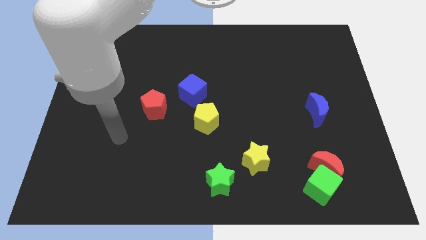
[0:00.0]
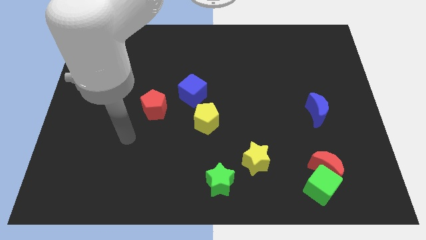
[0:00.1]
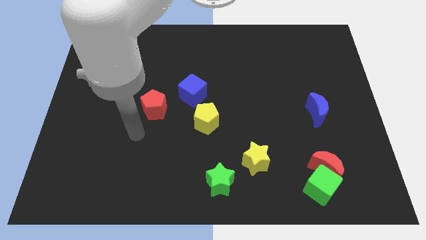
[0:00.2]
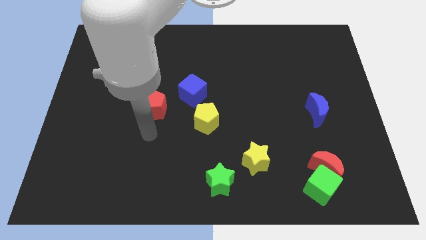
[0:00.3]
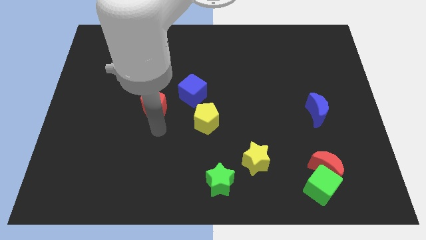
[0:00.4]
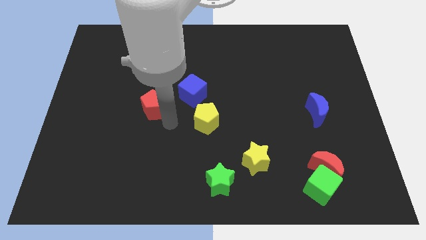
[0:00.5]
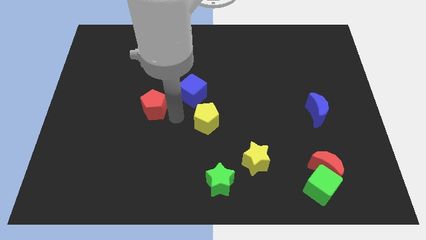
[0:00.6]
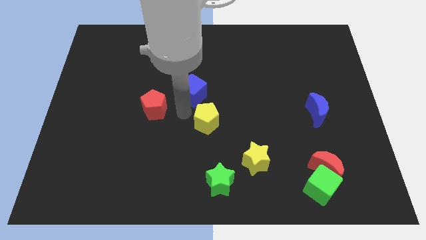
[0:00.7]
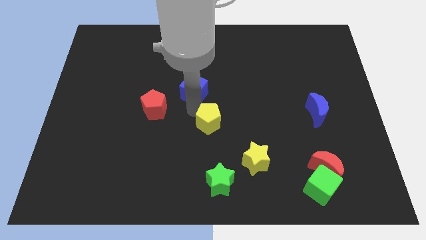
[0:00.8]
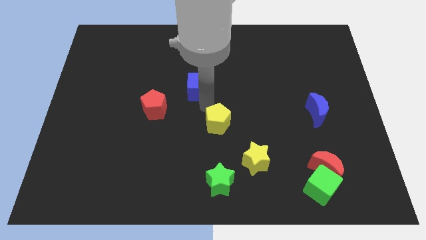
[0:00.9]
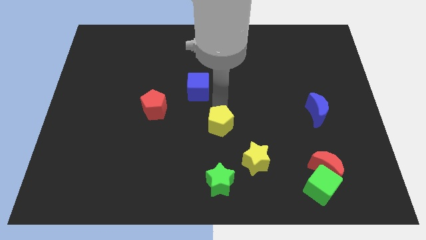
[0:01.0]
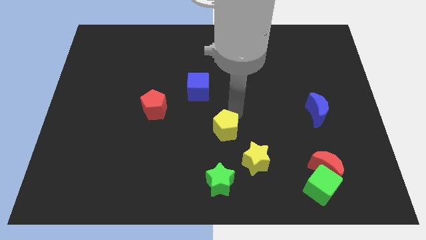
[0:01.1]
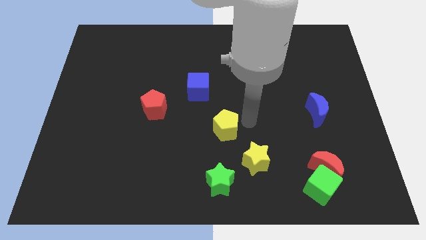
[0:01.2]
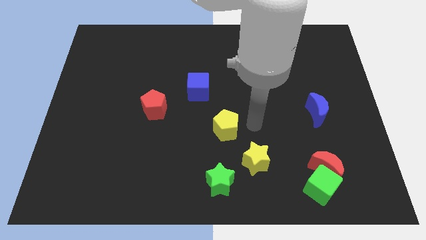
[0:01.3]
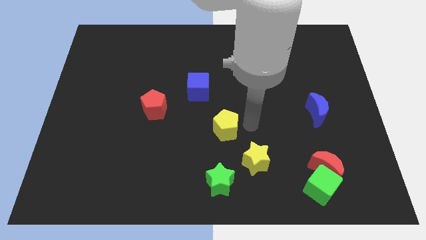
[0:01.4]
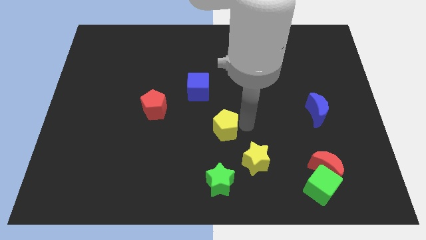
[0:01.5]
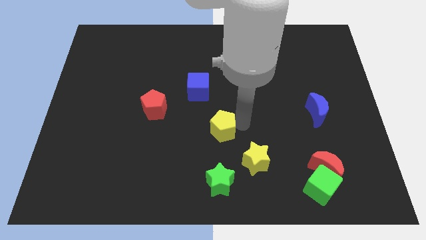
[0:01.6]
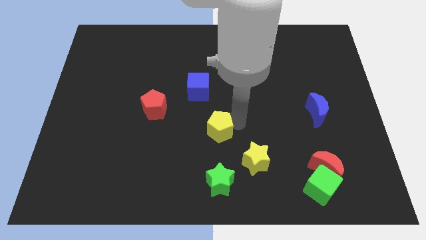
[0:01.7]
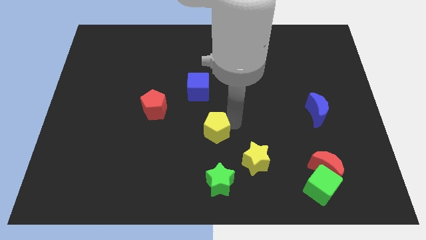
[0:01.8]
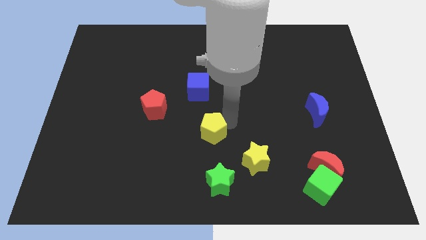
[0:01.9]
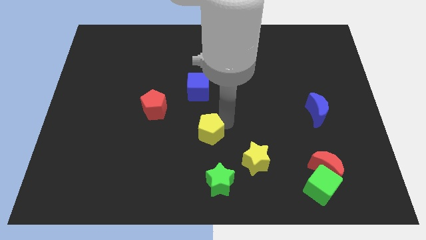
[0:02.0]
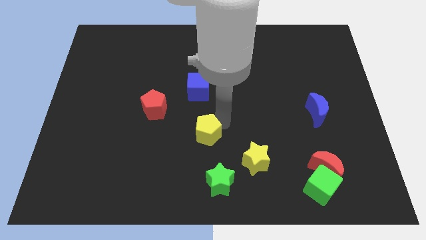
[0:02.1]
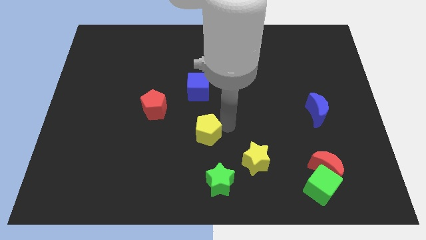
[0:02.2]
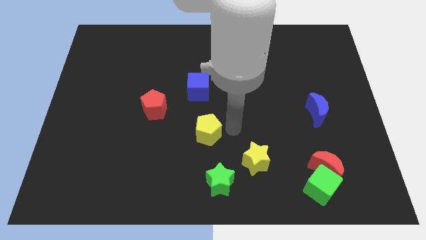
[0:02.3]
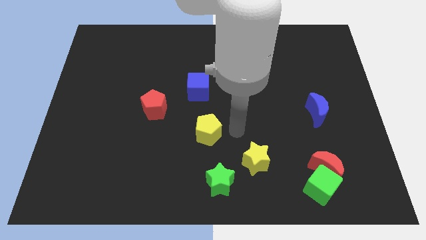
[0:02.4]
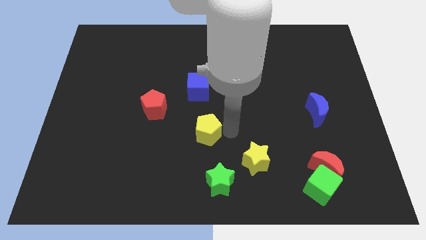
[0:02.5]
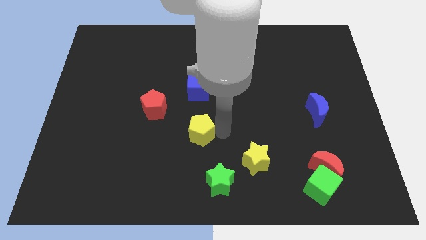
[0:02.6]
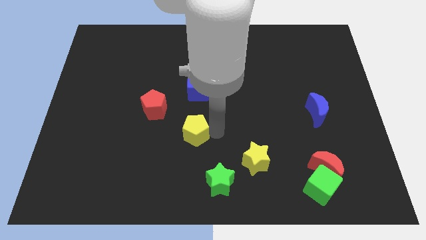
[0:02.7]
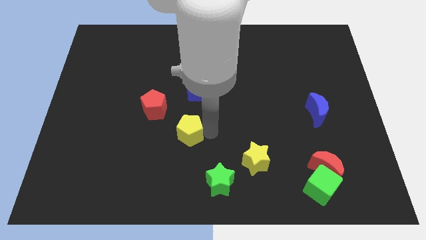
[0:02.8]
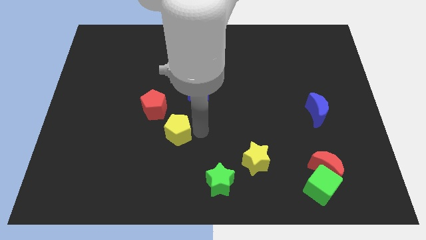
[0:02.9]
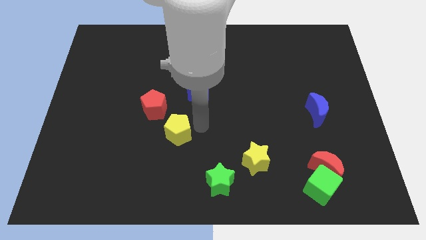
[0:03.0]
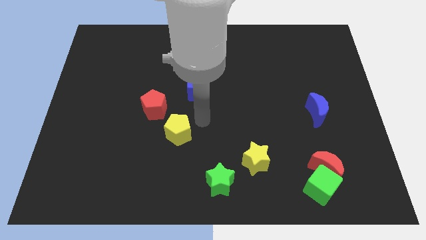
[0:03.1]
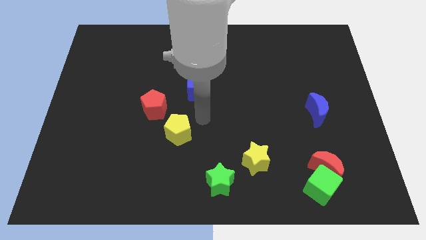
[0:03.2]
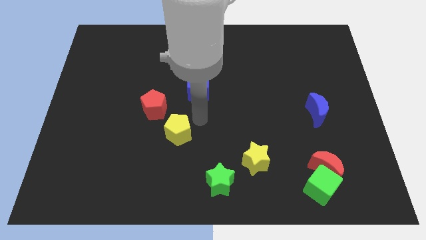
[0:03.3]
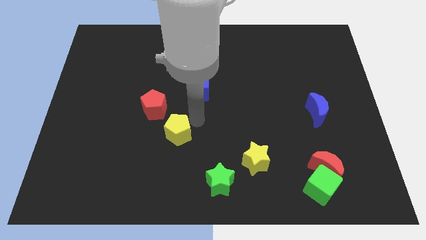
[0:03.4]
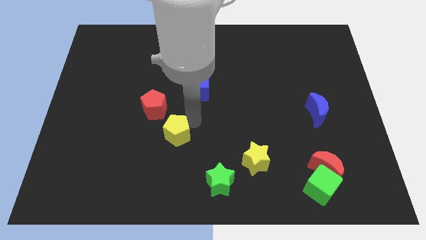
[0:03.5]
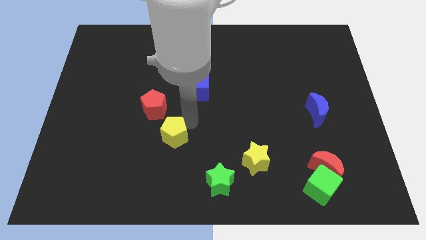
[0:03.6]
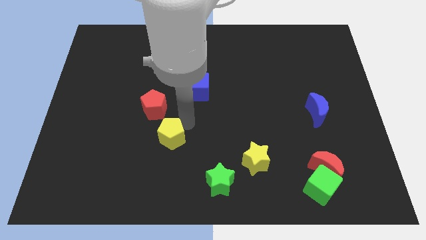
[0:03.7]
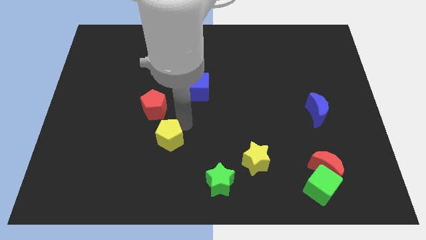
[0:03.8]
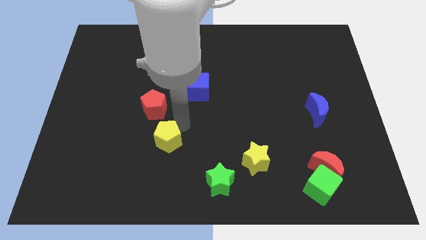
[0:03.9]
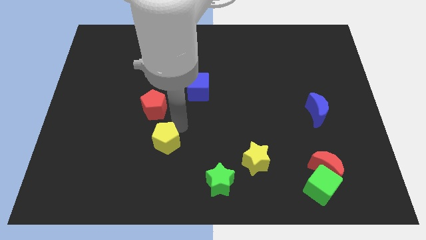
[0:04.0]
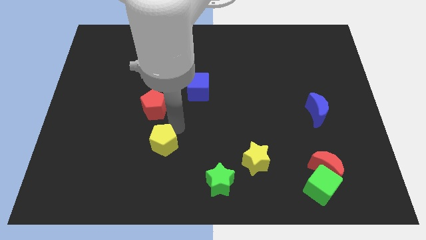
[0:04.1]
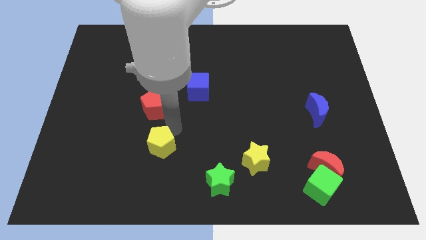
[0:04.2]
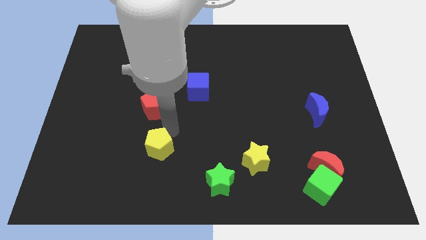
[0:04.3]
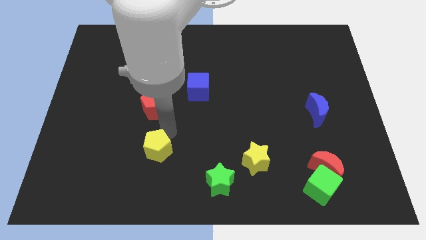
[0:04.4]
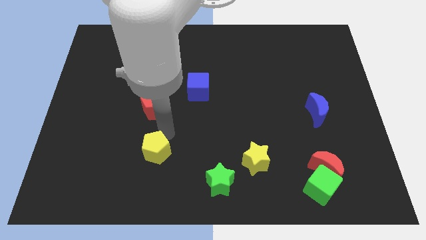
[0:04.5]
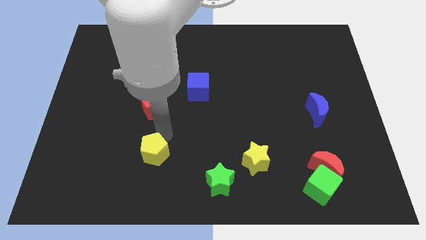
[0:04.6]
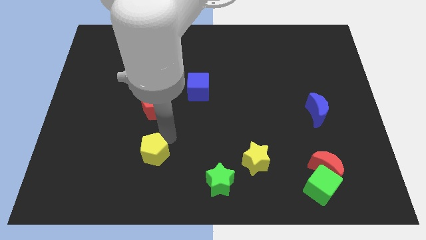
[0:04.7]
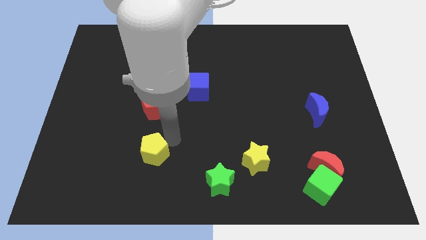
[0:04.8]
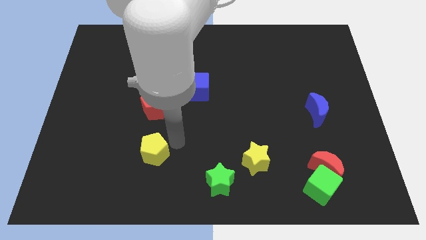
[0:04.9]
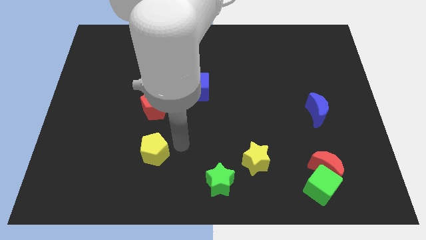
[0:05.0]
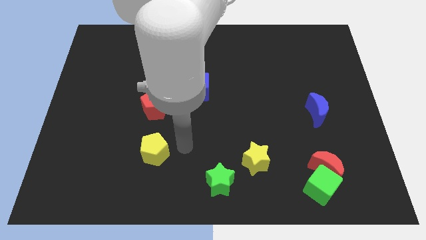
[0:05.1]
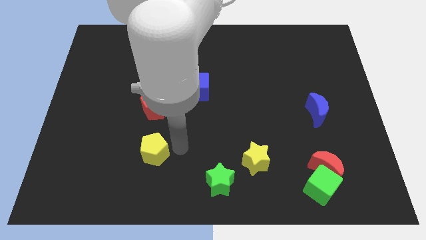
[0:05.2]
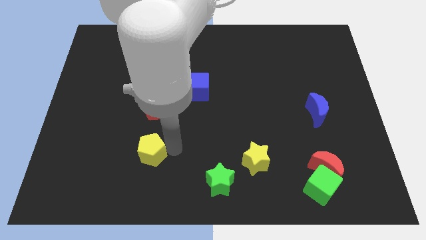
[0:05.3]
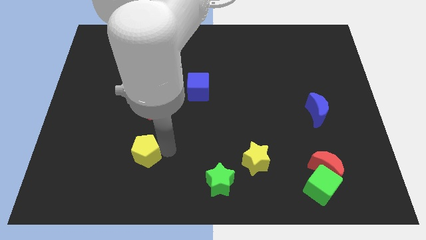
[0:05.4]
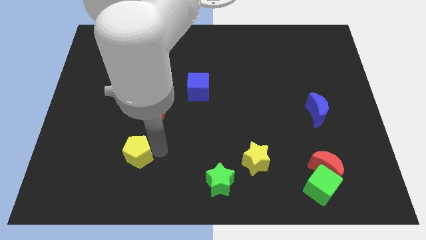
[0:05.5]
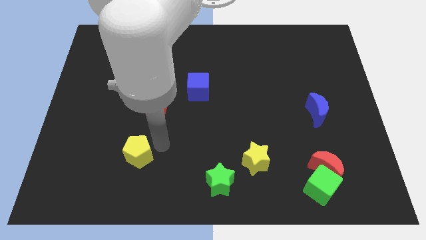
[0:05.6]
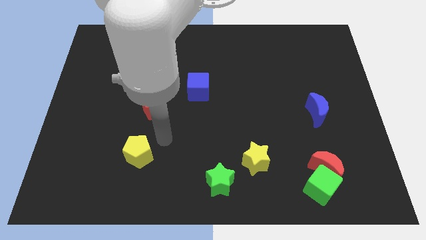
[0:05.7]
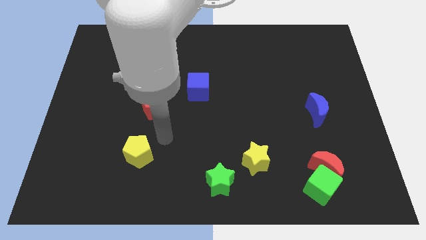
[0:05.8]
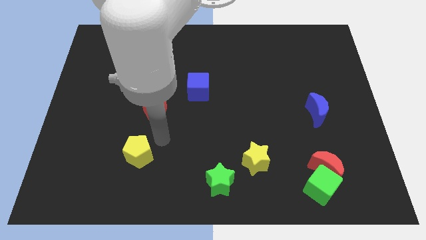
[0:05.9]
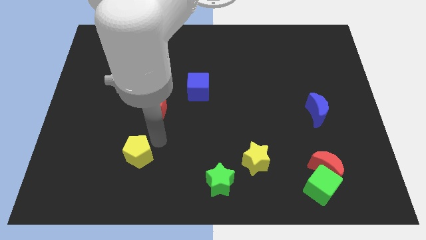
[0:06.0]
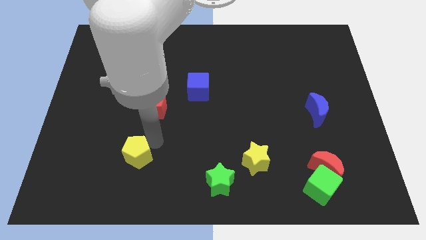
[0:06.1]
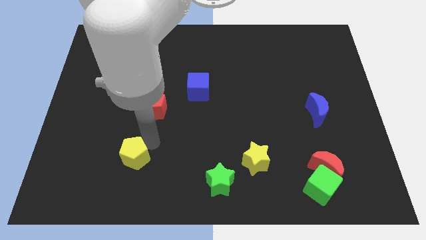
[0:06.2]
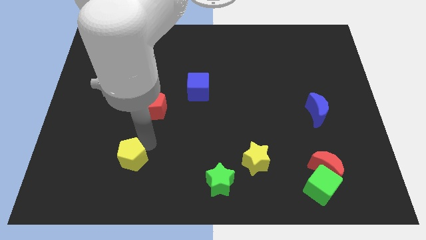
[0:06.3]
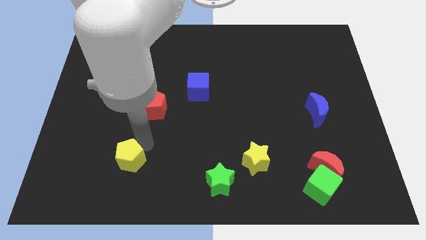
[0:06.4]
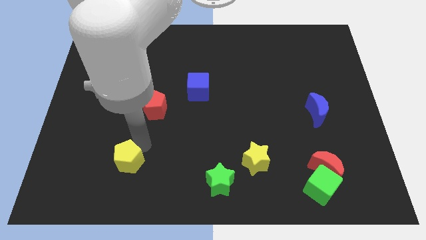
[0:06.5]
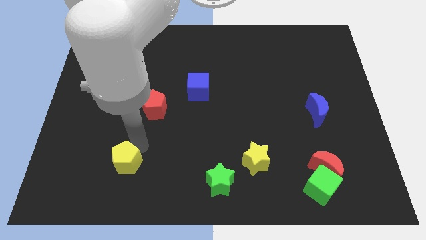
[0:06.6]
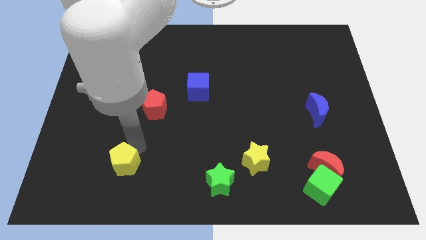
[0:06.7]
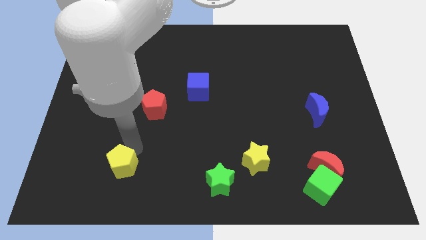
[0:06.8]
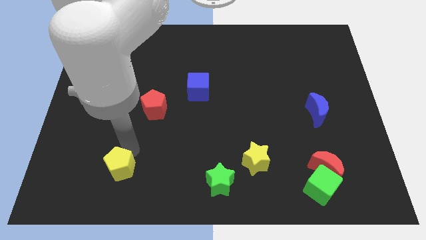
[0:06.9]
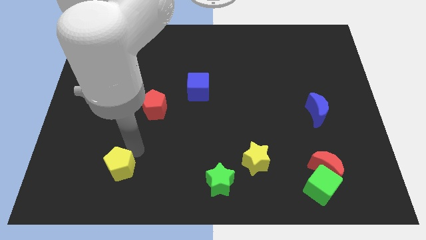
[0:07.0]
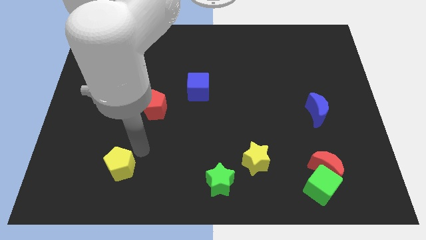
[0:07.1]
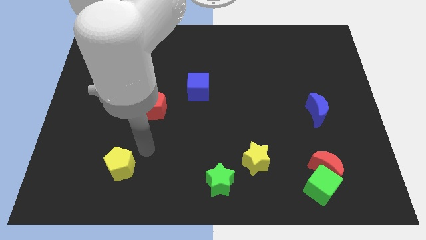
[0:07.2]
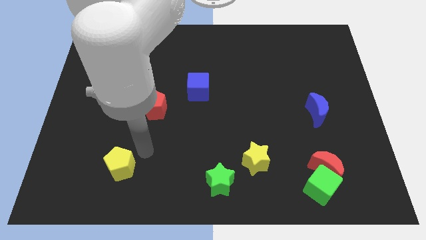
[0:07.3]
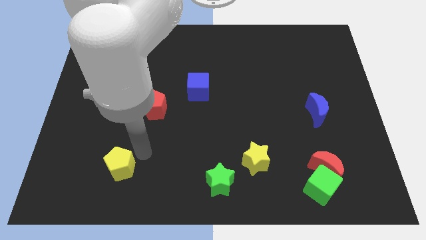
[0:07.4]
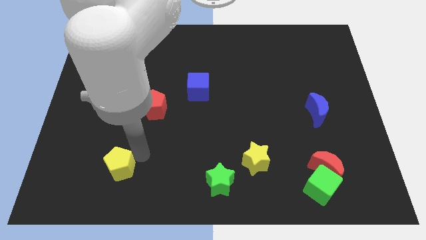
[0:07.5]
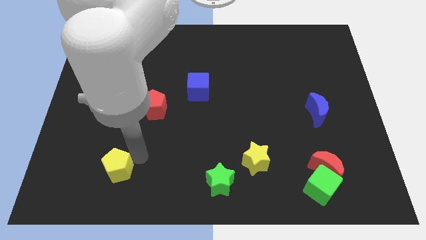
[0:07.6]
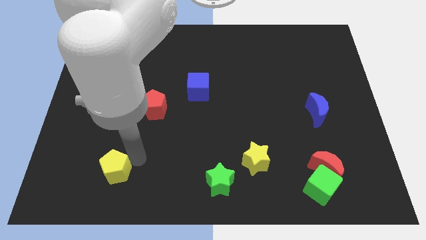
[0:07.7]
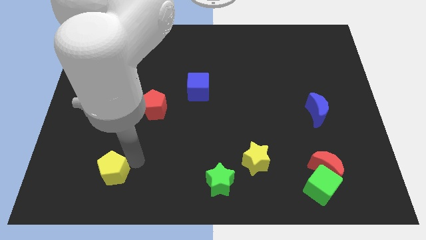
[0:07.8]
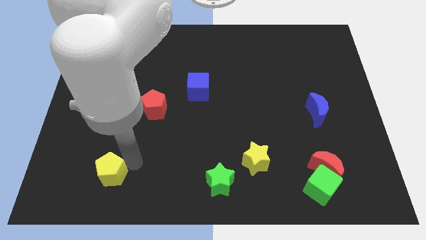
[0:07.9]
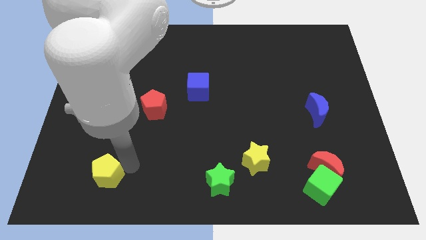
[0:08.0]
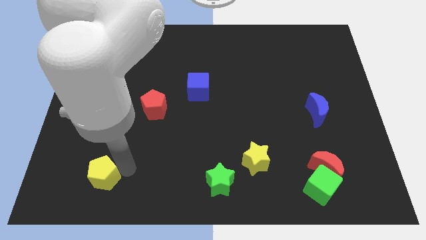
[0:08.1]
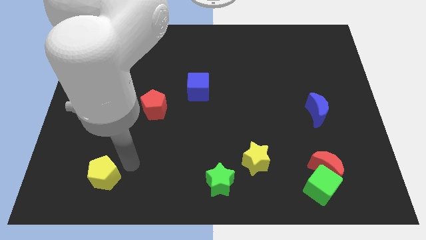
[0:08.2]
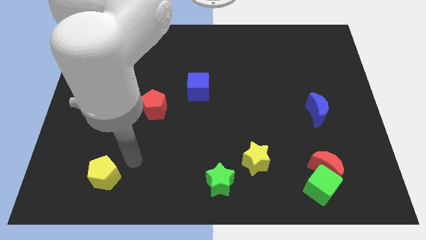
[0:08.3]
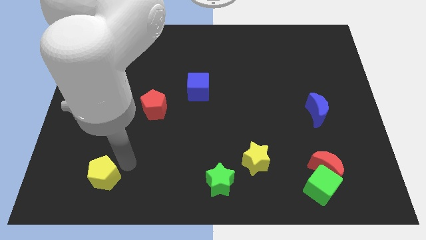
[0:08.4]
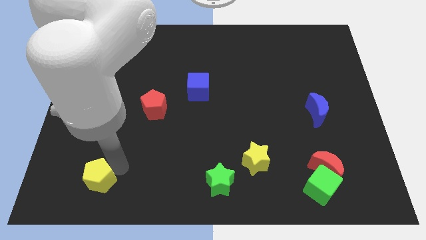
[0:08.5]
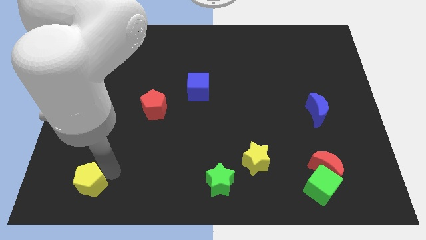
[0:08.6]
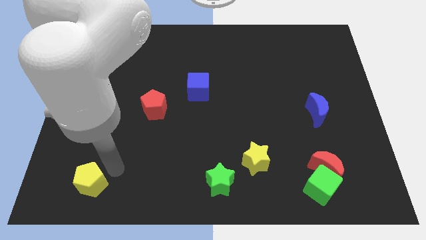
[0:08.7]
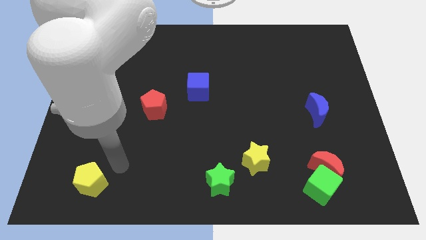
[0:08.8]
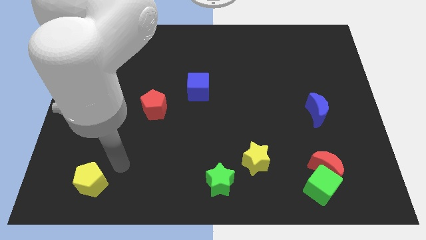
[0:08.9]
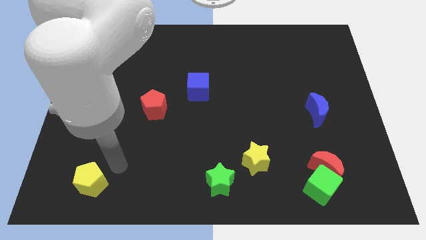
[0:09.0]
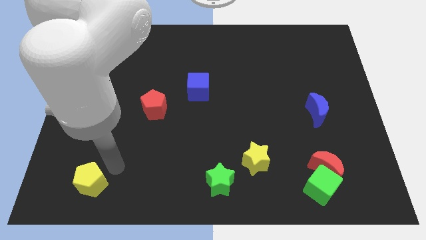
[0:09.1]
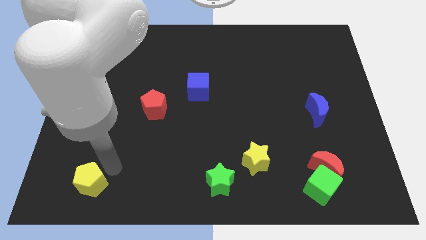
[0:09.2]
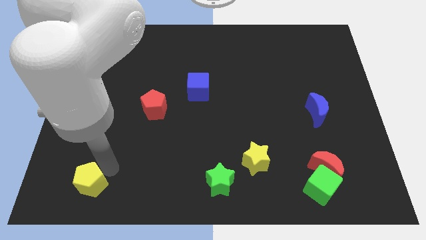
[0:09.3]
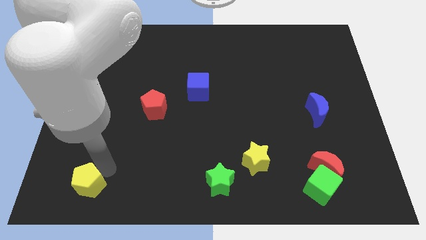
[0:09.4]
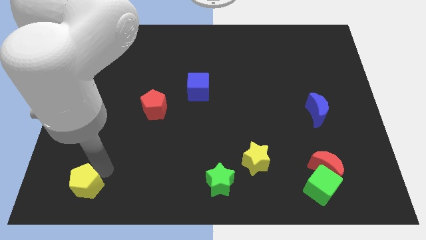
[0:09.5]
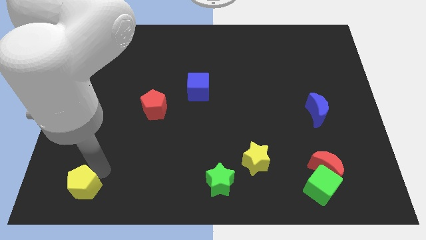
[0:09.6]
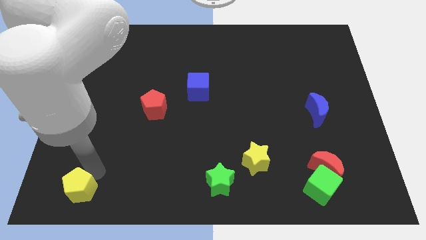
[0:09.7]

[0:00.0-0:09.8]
move the yellow pentagon to the bottom left of the board
